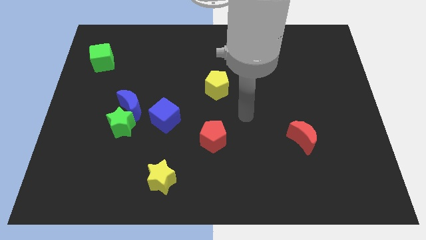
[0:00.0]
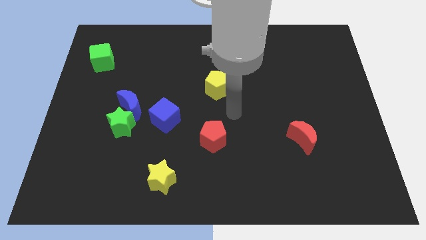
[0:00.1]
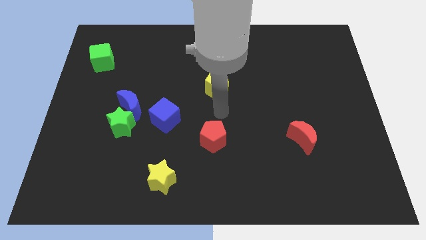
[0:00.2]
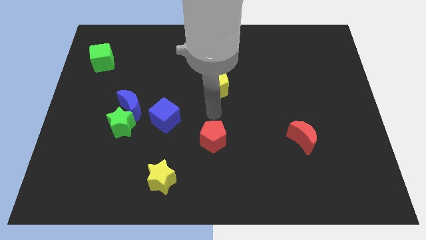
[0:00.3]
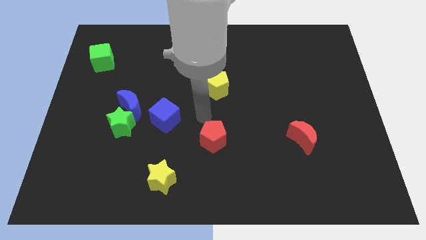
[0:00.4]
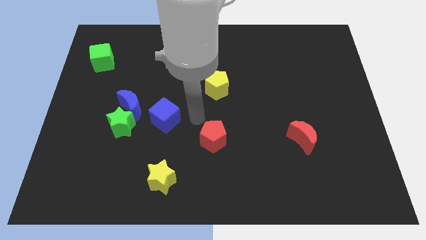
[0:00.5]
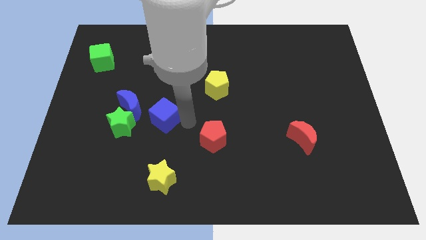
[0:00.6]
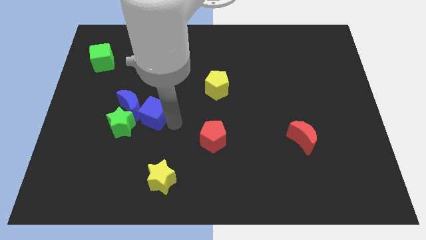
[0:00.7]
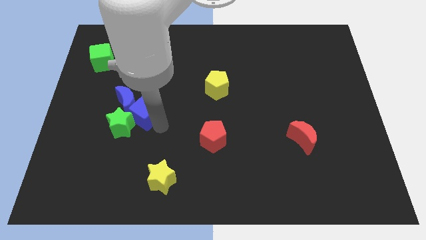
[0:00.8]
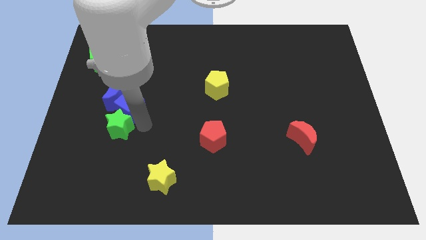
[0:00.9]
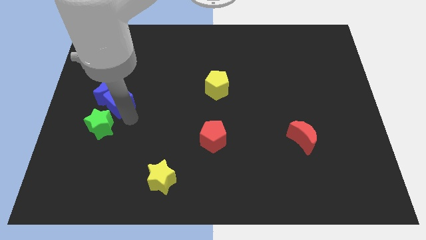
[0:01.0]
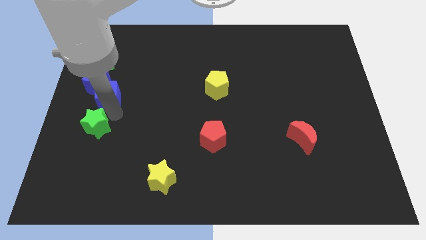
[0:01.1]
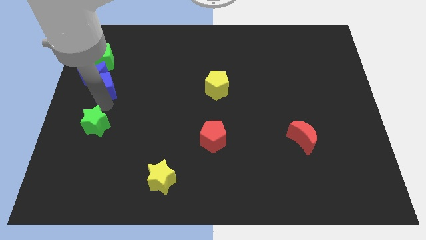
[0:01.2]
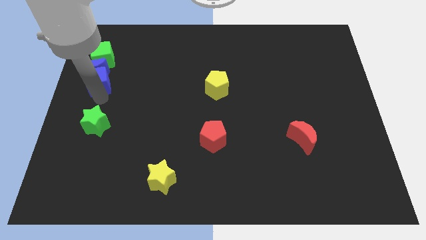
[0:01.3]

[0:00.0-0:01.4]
pull the blue moon apart from the green star and blue cube

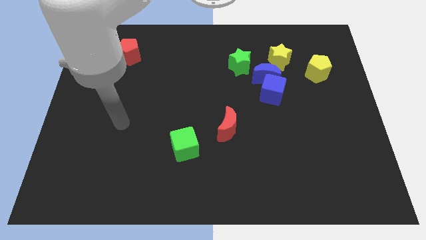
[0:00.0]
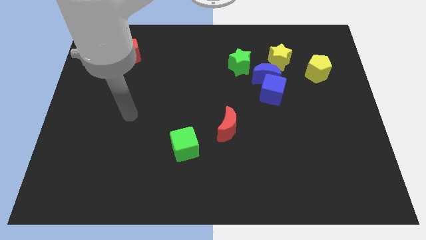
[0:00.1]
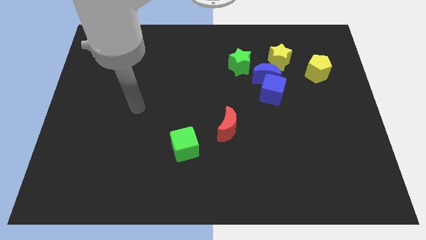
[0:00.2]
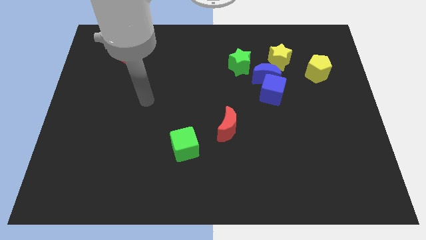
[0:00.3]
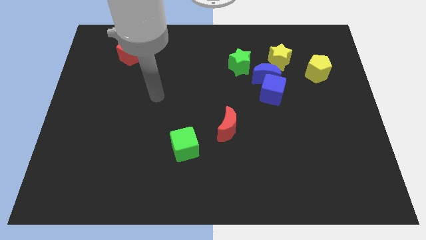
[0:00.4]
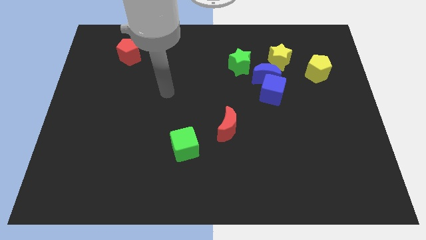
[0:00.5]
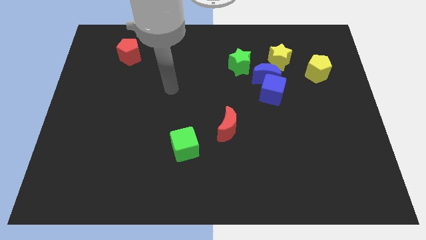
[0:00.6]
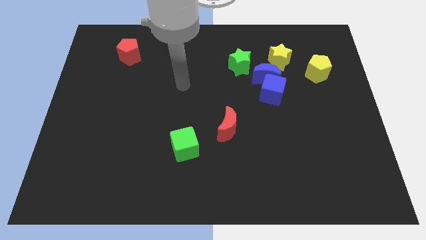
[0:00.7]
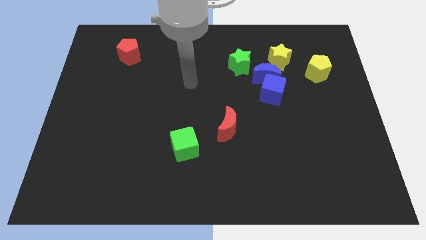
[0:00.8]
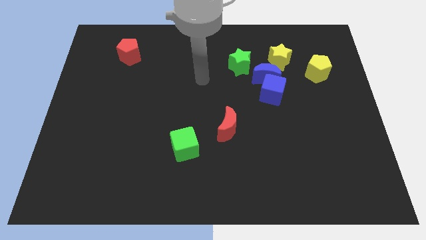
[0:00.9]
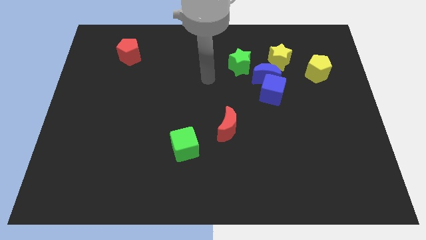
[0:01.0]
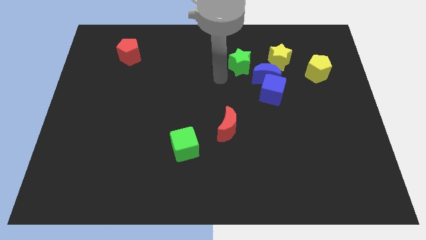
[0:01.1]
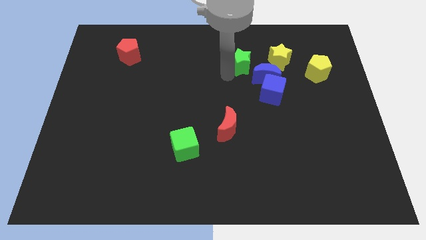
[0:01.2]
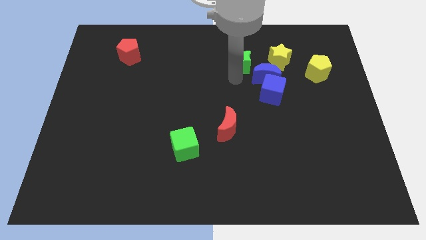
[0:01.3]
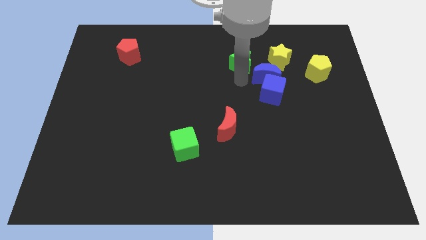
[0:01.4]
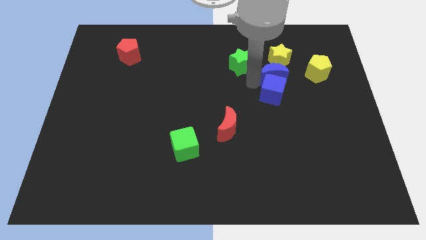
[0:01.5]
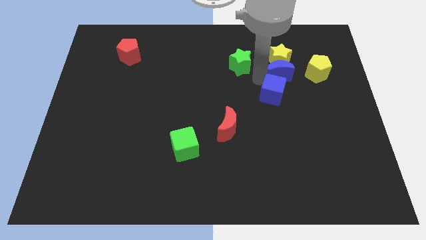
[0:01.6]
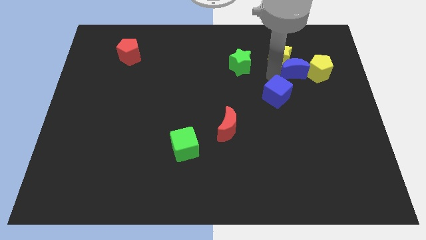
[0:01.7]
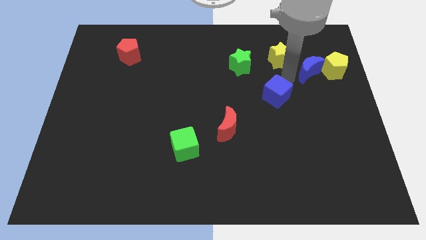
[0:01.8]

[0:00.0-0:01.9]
pull the blue cube apart from the blue moon

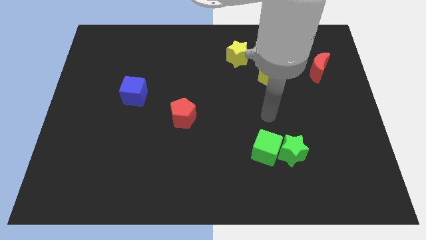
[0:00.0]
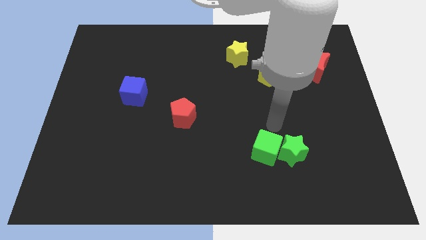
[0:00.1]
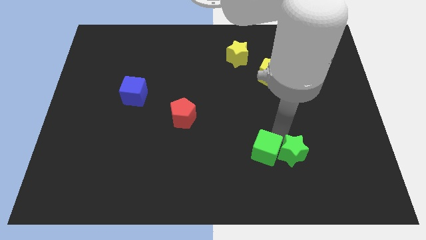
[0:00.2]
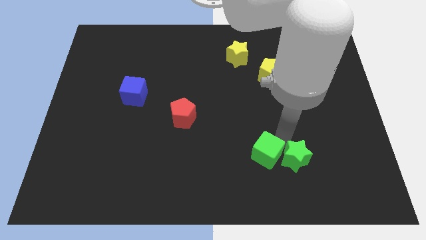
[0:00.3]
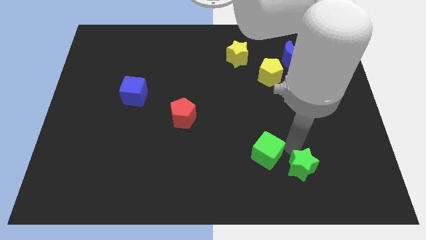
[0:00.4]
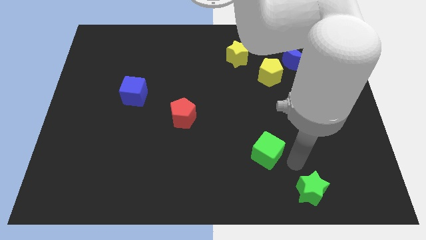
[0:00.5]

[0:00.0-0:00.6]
pull the green cube apart from the green star

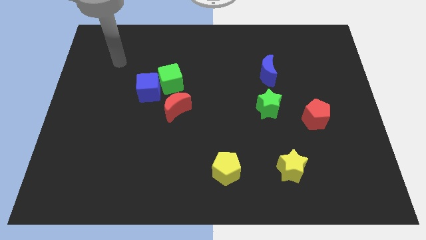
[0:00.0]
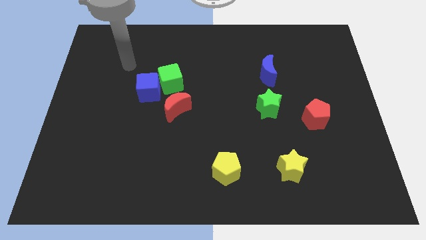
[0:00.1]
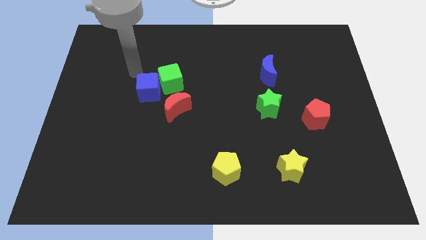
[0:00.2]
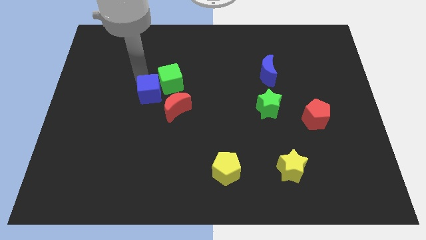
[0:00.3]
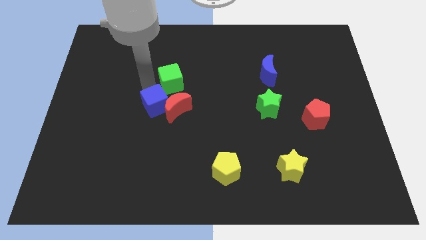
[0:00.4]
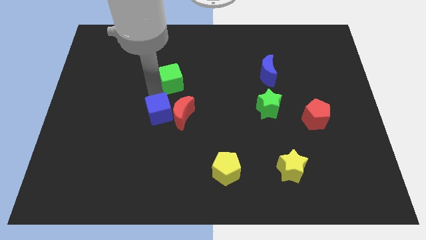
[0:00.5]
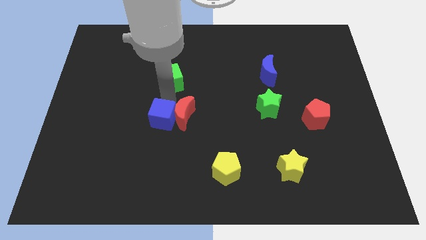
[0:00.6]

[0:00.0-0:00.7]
pull the green cube apart from the blue cube and red moon

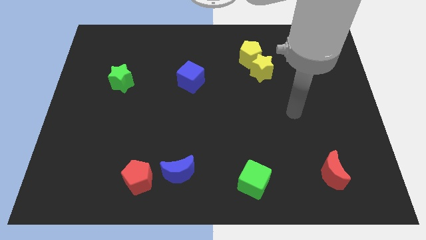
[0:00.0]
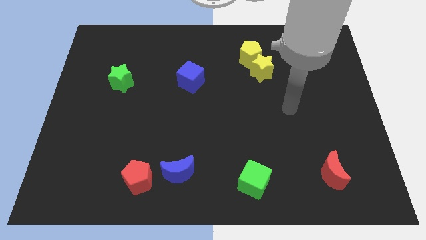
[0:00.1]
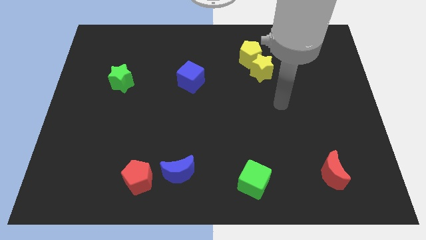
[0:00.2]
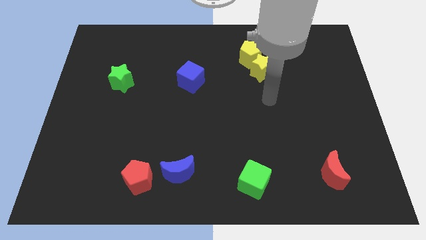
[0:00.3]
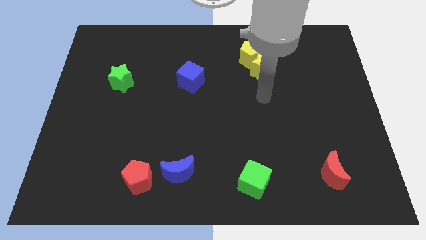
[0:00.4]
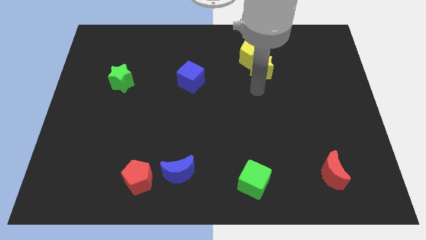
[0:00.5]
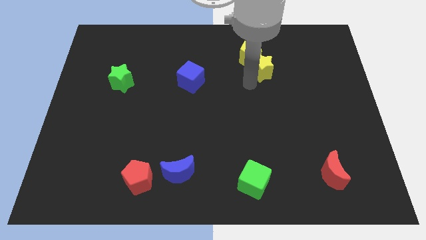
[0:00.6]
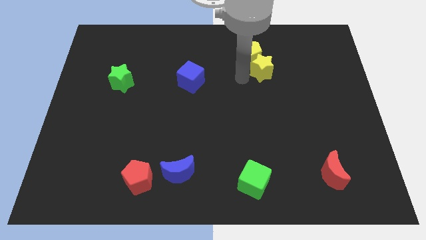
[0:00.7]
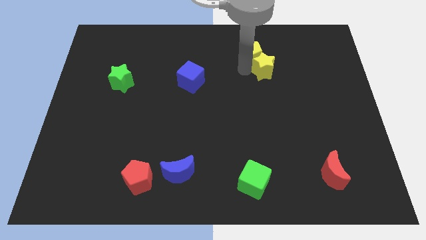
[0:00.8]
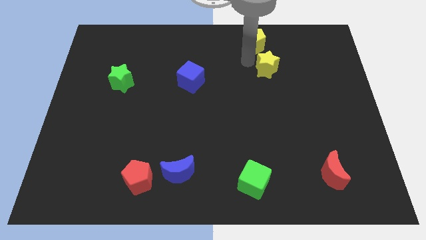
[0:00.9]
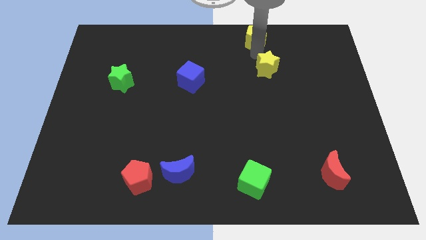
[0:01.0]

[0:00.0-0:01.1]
move the yellow star away from the yellow pentagon

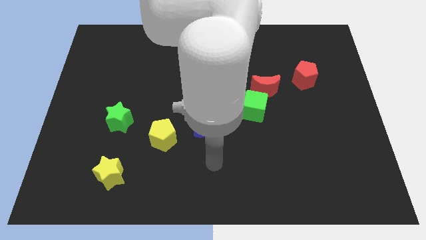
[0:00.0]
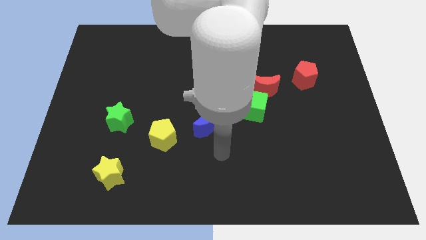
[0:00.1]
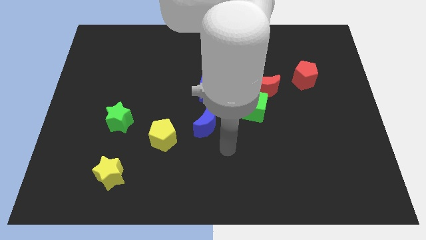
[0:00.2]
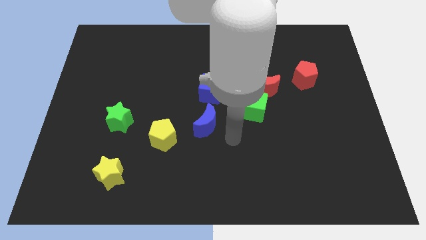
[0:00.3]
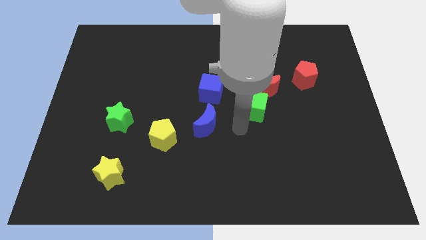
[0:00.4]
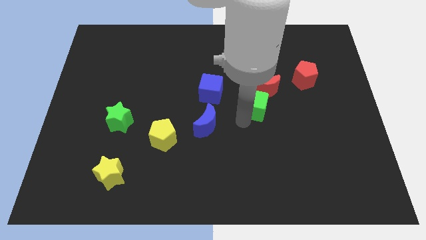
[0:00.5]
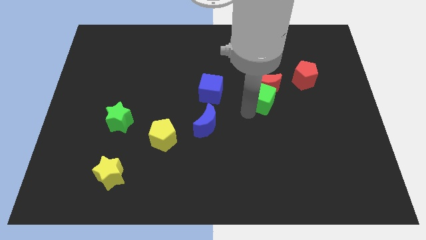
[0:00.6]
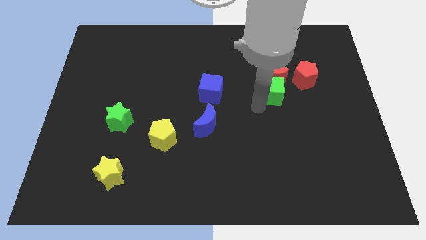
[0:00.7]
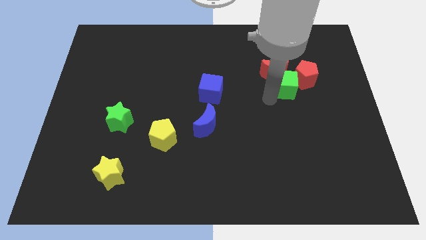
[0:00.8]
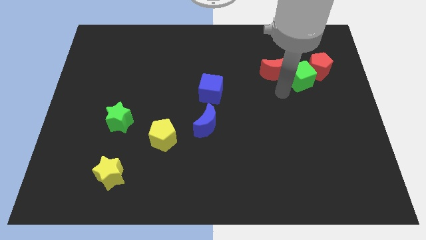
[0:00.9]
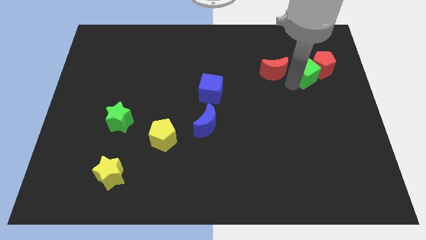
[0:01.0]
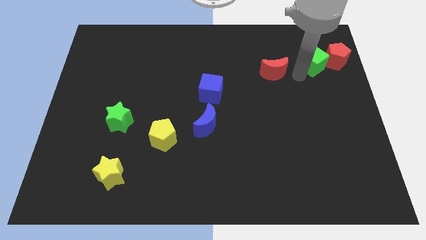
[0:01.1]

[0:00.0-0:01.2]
pull the red moon apart from the green cube

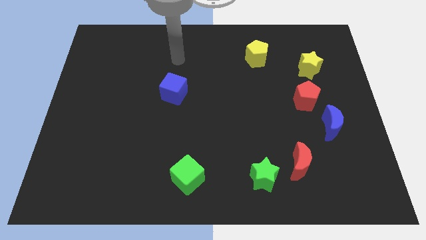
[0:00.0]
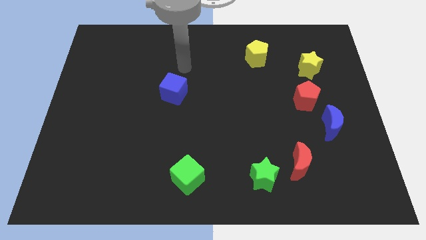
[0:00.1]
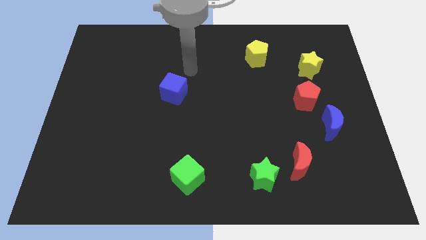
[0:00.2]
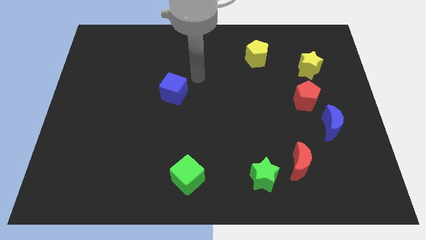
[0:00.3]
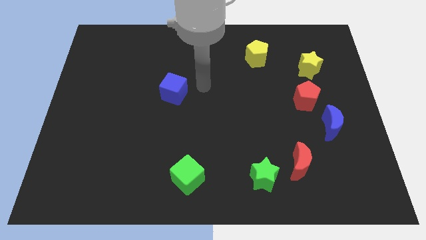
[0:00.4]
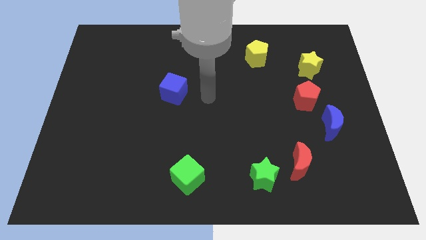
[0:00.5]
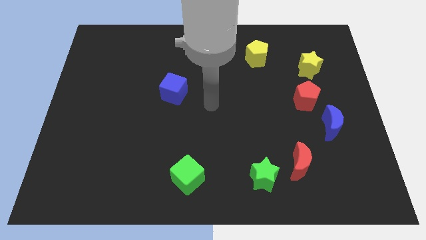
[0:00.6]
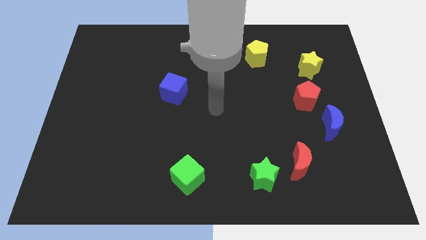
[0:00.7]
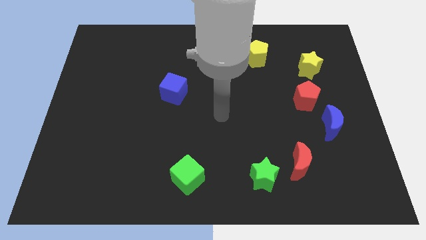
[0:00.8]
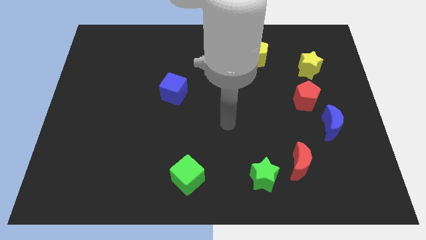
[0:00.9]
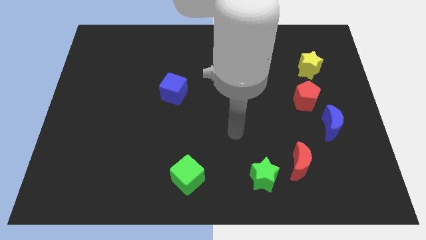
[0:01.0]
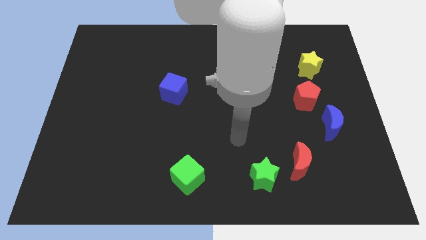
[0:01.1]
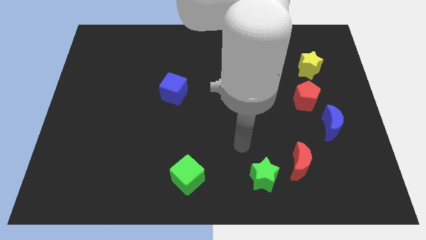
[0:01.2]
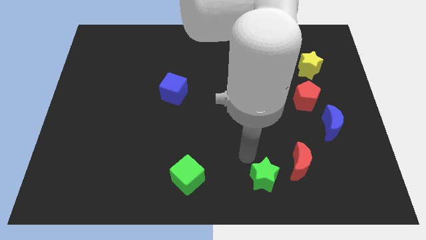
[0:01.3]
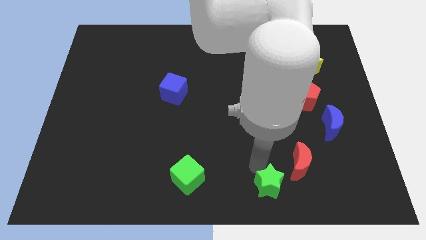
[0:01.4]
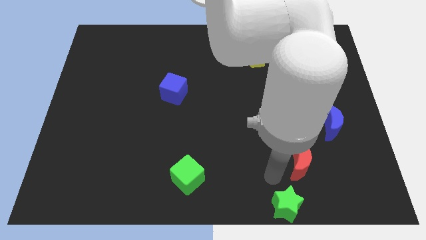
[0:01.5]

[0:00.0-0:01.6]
move the red moon away from the green star

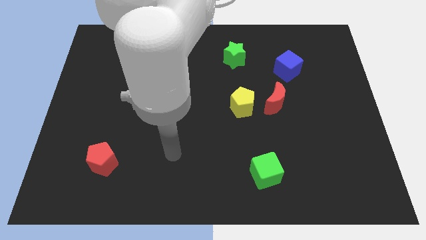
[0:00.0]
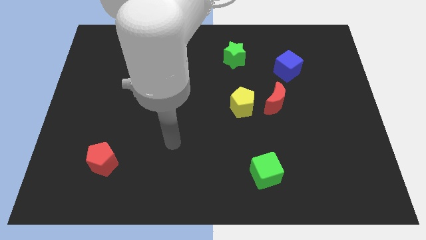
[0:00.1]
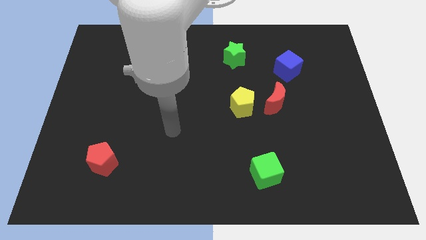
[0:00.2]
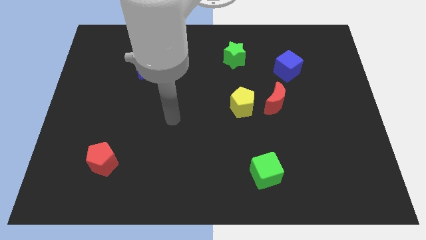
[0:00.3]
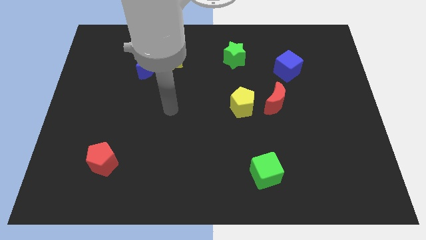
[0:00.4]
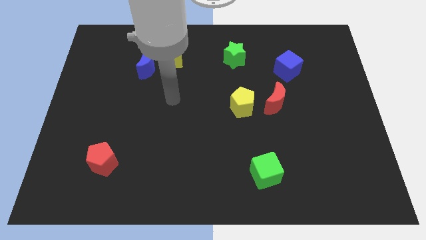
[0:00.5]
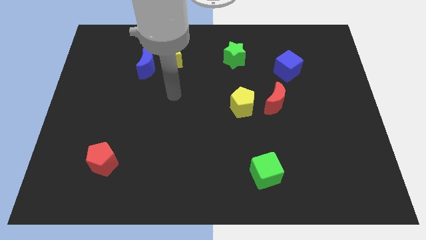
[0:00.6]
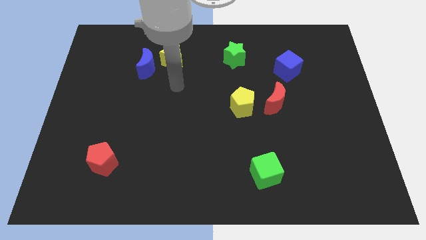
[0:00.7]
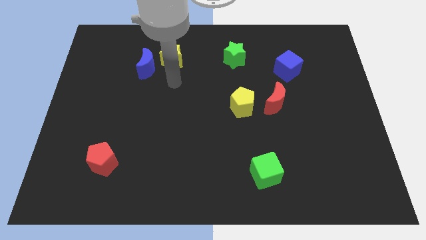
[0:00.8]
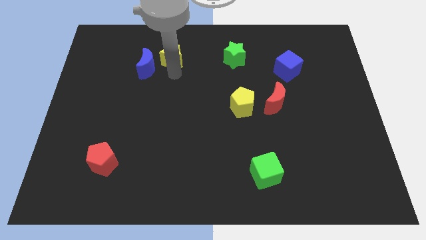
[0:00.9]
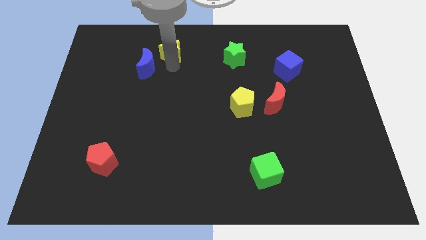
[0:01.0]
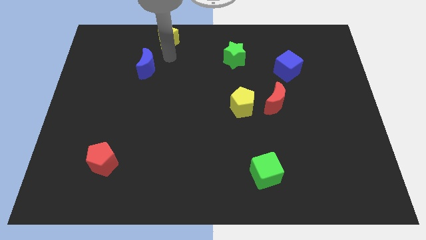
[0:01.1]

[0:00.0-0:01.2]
separate the blue moon from the yellow star
